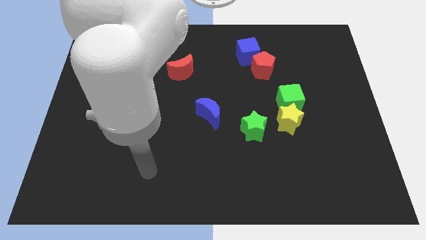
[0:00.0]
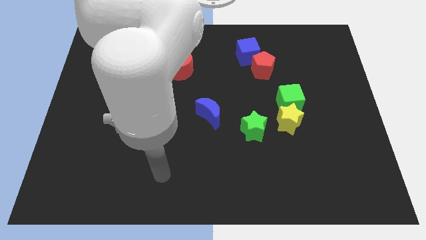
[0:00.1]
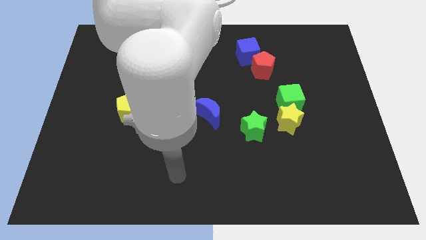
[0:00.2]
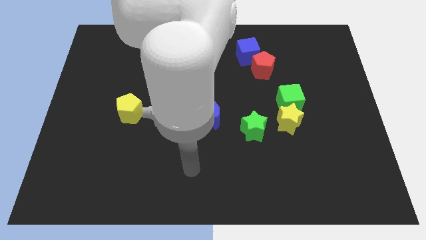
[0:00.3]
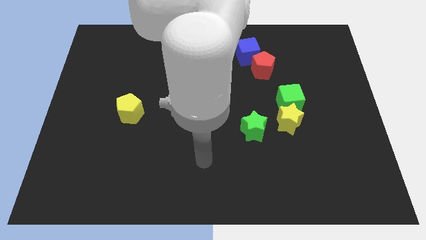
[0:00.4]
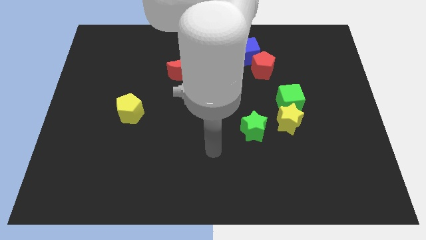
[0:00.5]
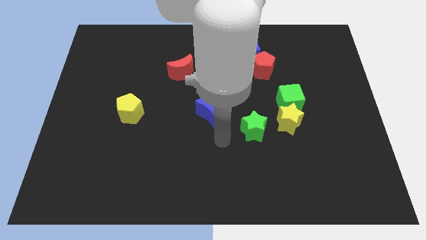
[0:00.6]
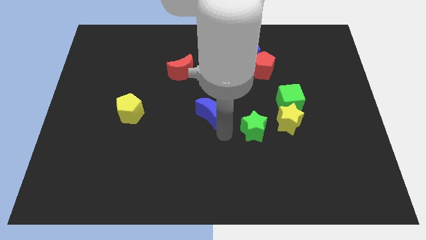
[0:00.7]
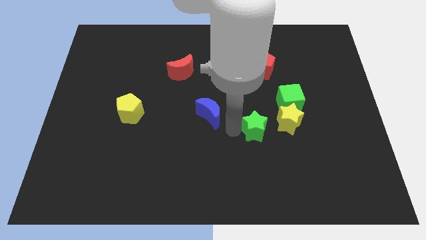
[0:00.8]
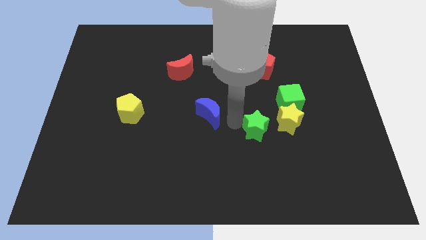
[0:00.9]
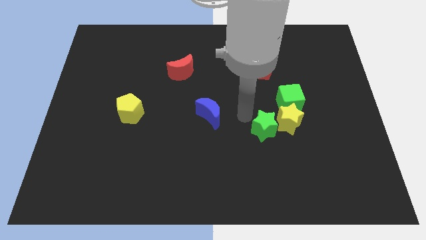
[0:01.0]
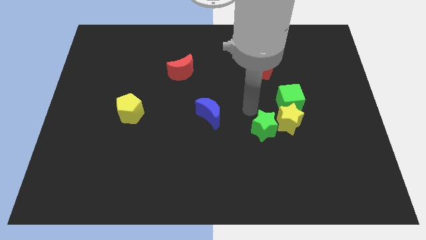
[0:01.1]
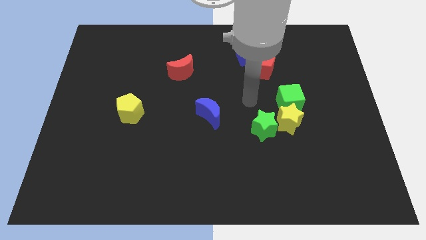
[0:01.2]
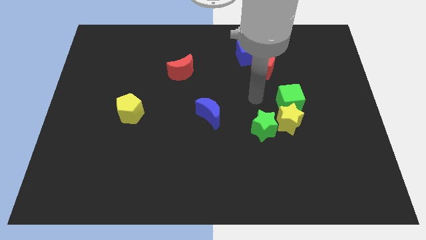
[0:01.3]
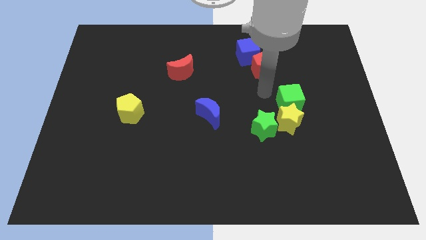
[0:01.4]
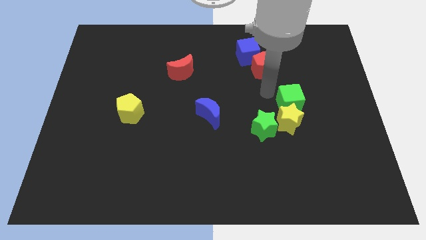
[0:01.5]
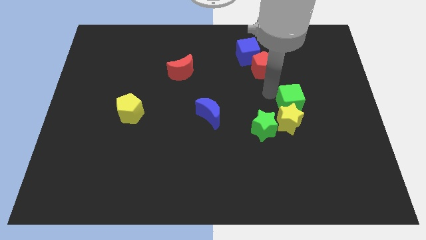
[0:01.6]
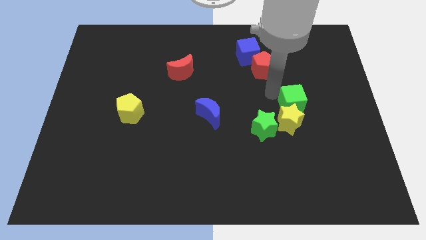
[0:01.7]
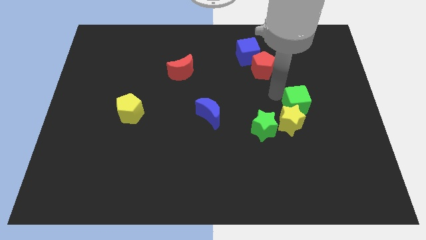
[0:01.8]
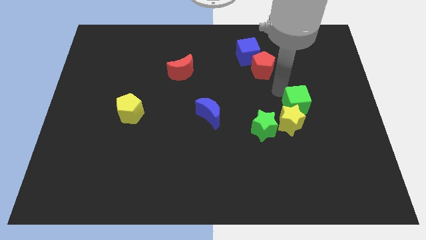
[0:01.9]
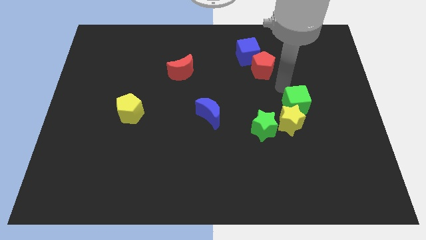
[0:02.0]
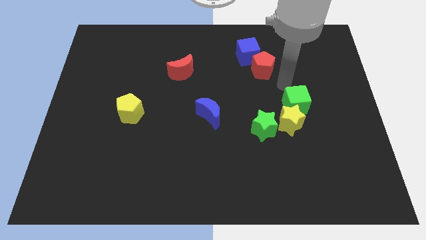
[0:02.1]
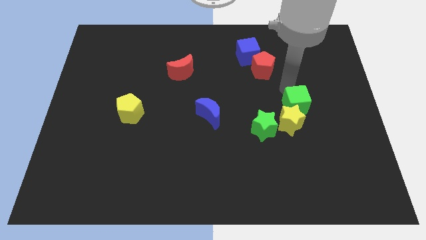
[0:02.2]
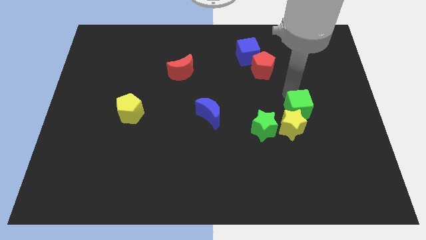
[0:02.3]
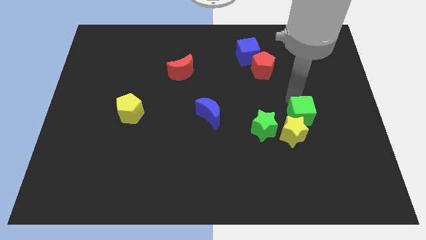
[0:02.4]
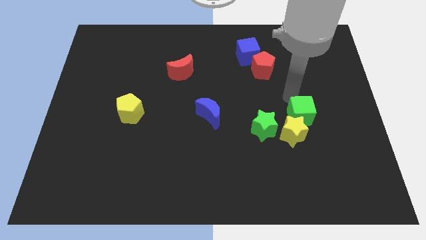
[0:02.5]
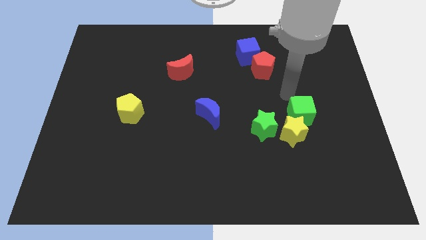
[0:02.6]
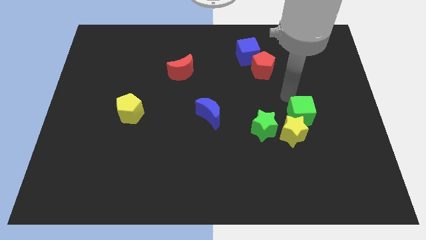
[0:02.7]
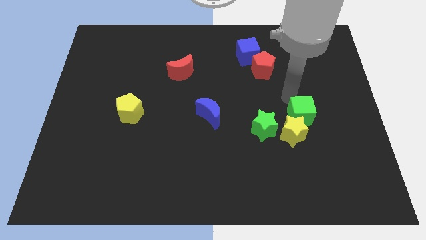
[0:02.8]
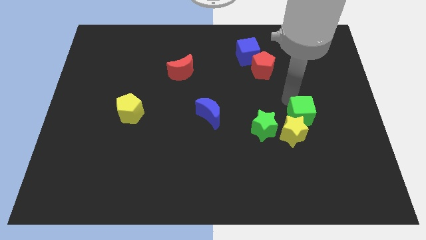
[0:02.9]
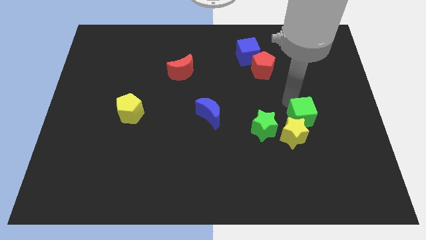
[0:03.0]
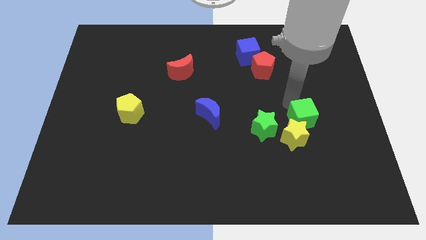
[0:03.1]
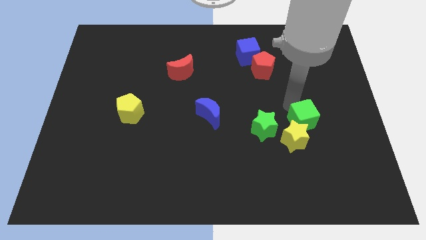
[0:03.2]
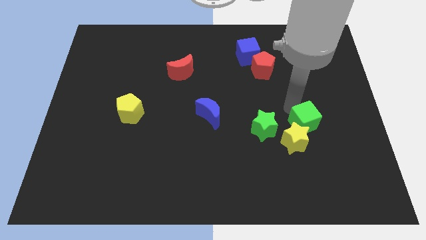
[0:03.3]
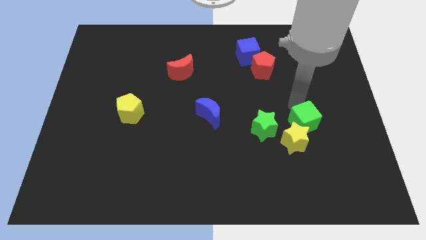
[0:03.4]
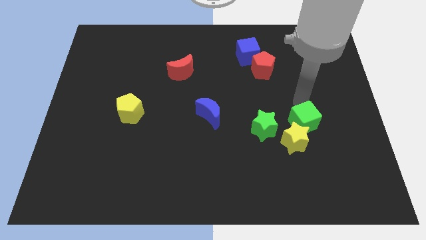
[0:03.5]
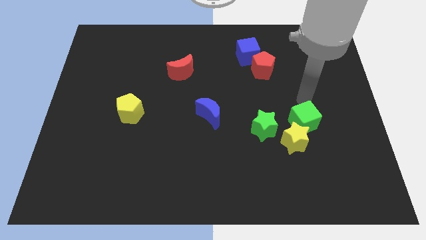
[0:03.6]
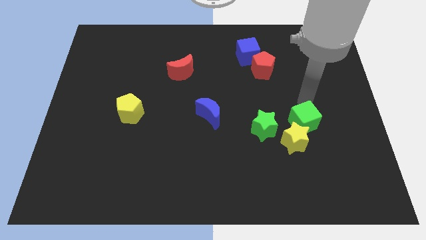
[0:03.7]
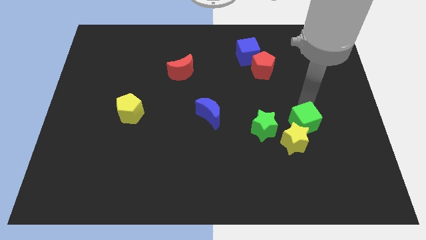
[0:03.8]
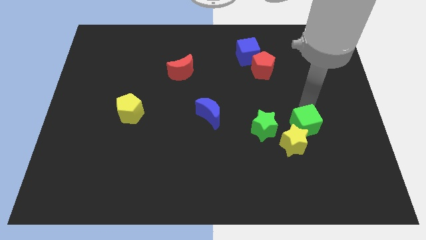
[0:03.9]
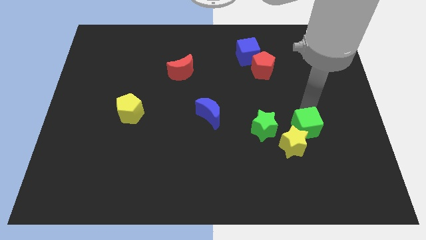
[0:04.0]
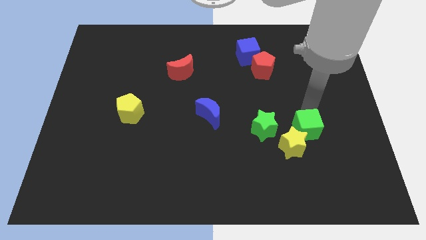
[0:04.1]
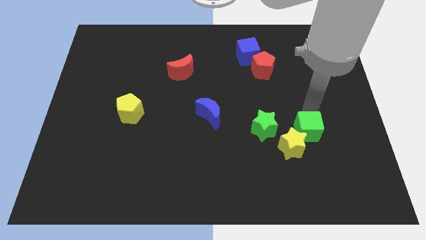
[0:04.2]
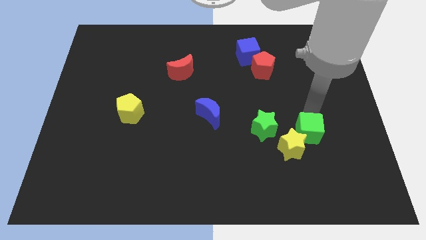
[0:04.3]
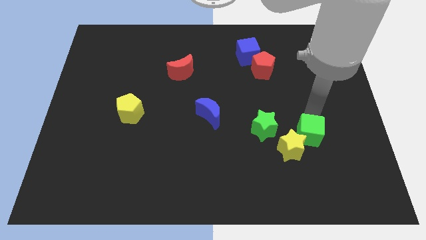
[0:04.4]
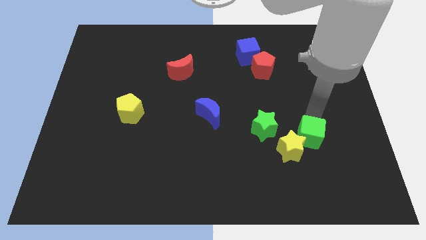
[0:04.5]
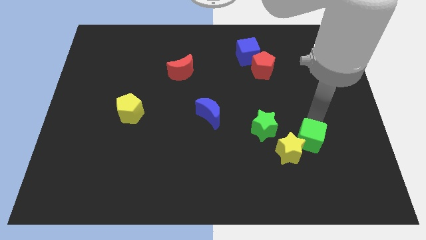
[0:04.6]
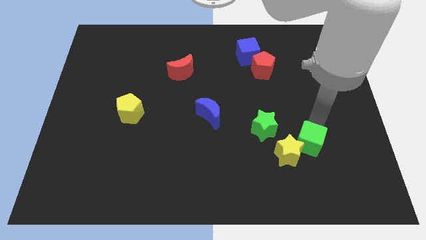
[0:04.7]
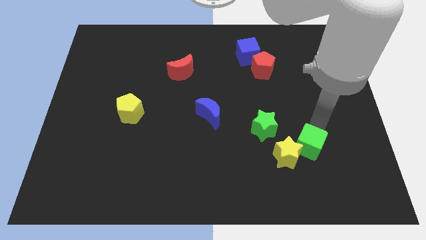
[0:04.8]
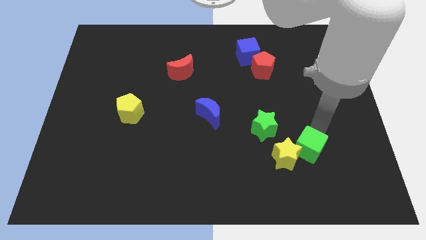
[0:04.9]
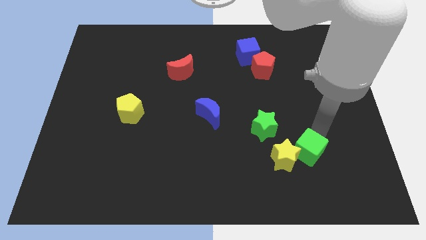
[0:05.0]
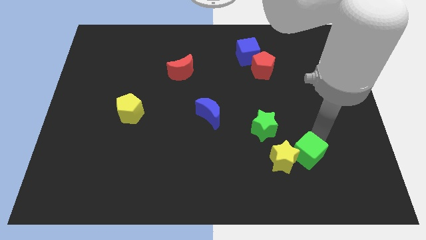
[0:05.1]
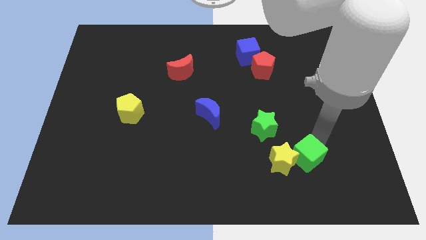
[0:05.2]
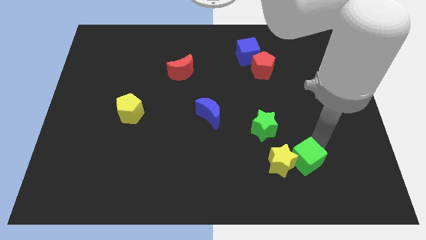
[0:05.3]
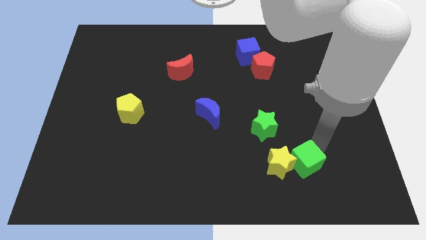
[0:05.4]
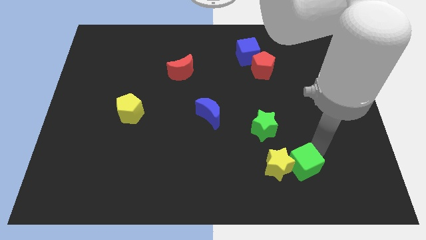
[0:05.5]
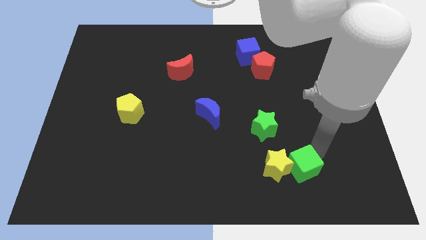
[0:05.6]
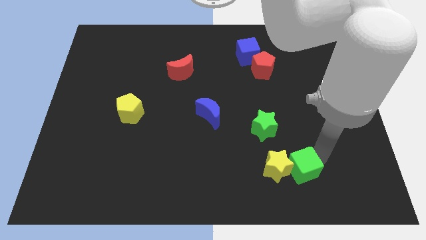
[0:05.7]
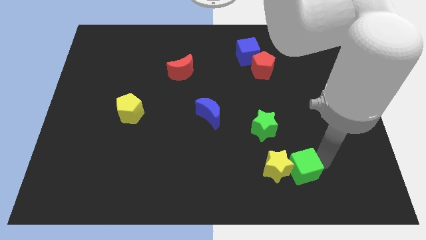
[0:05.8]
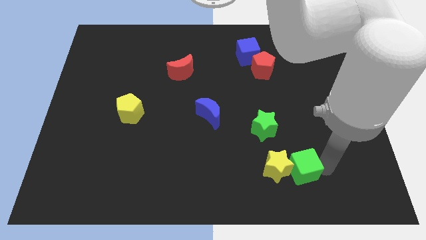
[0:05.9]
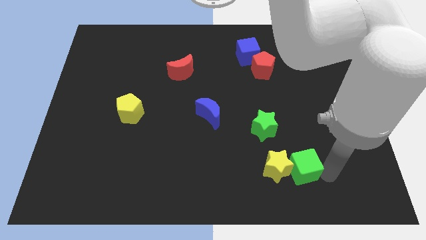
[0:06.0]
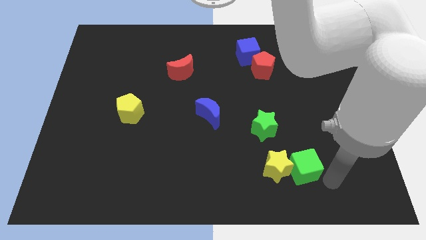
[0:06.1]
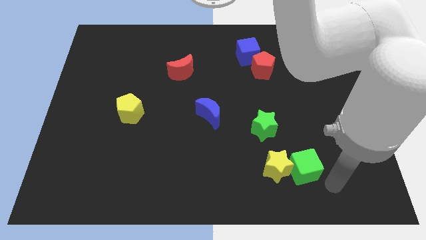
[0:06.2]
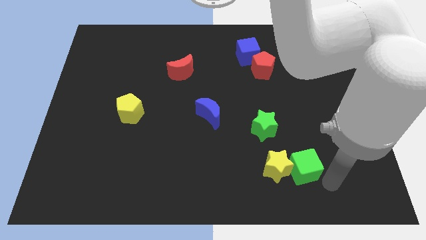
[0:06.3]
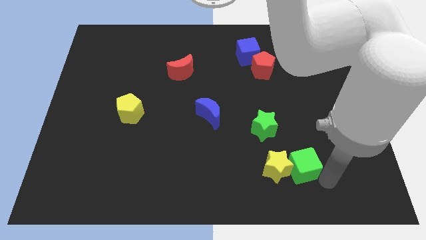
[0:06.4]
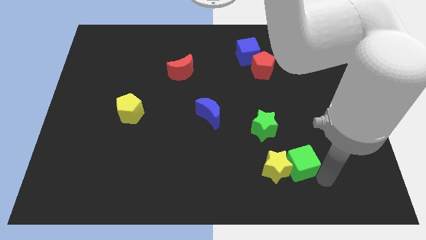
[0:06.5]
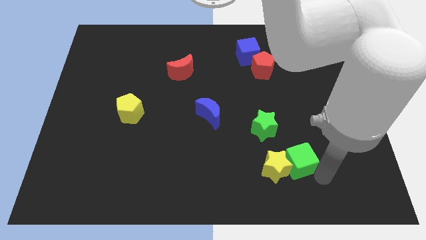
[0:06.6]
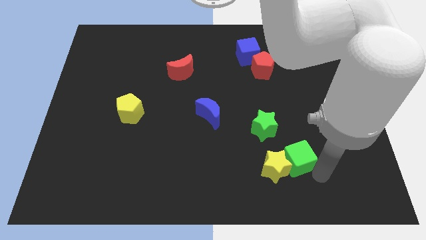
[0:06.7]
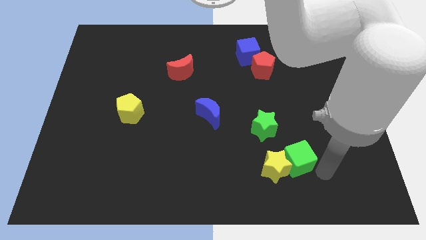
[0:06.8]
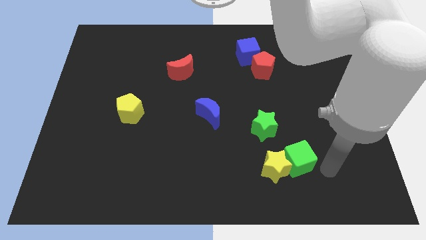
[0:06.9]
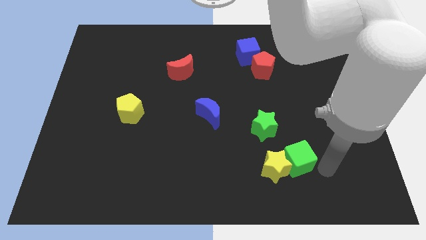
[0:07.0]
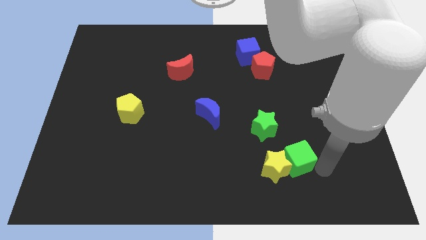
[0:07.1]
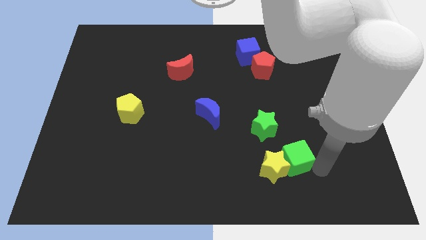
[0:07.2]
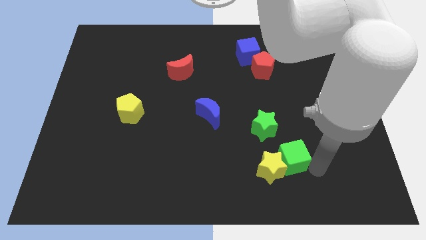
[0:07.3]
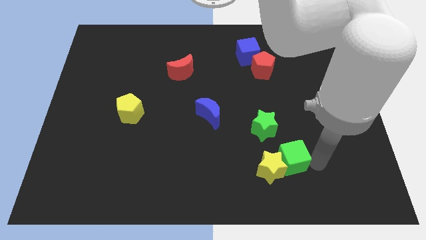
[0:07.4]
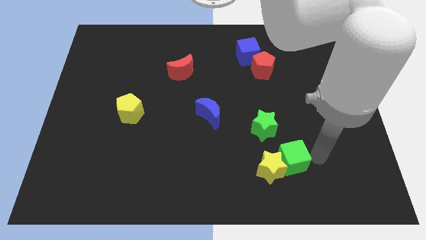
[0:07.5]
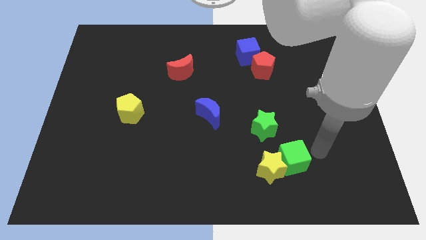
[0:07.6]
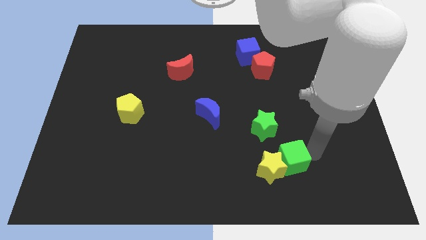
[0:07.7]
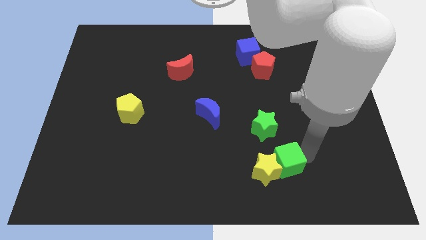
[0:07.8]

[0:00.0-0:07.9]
put the green cube to the bottom of the green star
